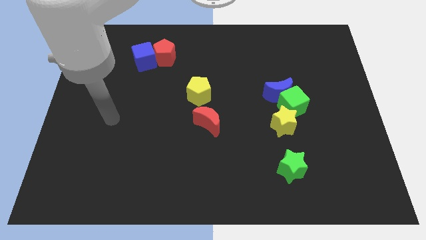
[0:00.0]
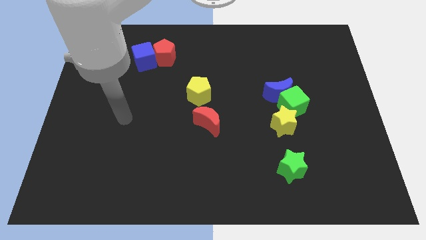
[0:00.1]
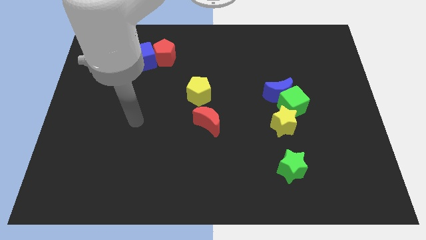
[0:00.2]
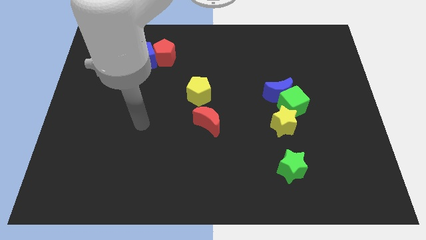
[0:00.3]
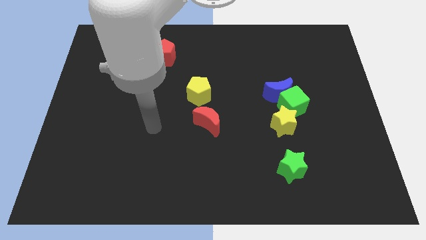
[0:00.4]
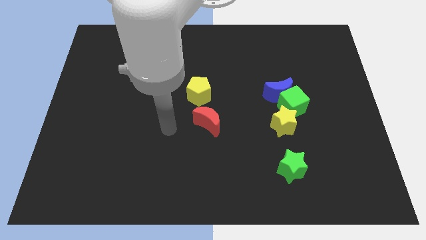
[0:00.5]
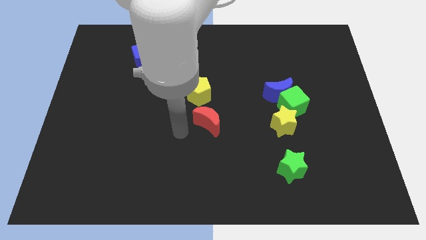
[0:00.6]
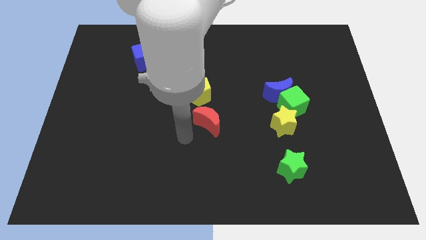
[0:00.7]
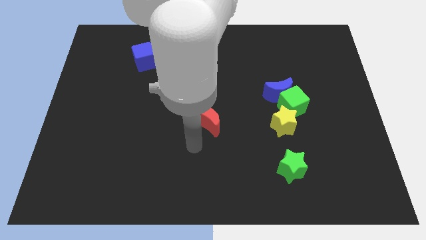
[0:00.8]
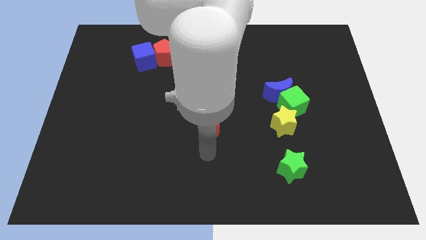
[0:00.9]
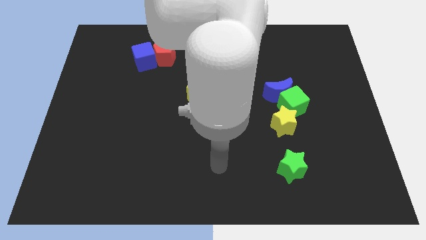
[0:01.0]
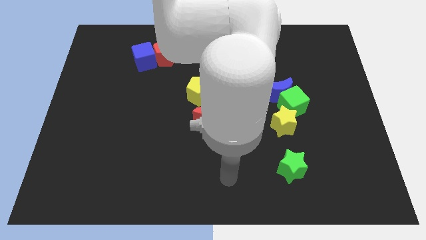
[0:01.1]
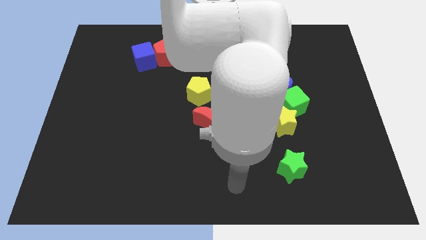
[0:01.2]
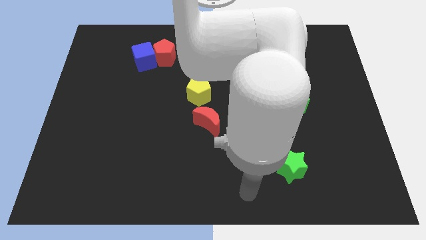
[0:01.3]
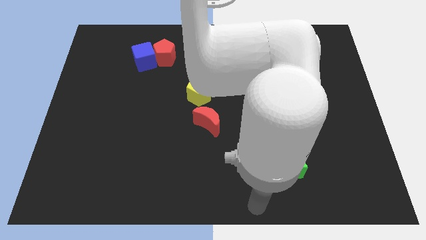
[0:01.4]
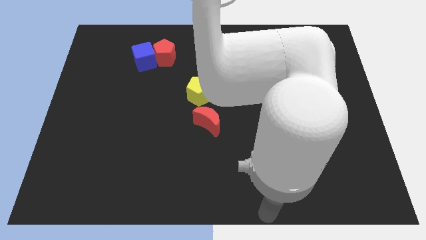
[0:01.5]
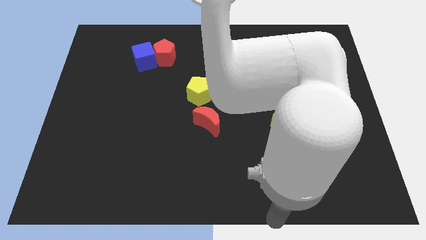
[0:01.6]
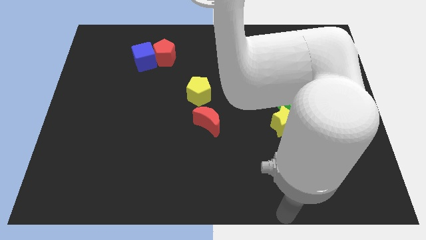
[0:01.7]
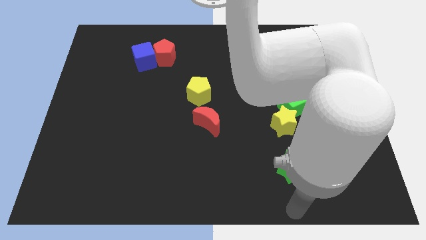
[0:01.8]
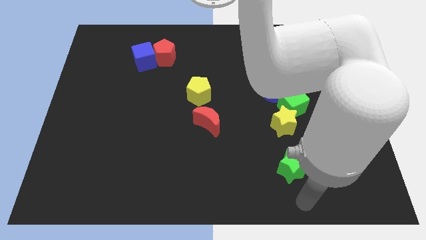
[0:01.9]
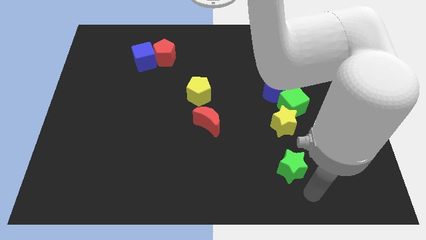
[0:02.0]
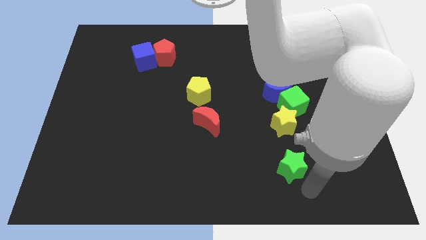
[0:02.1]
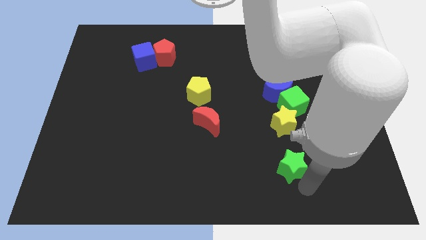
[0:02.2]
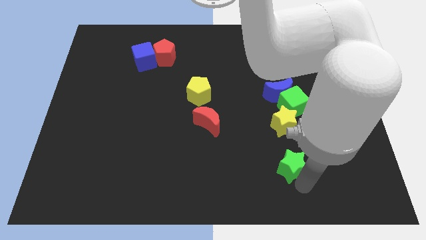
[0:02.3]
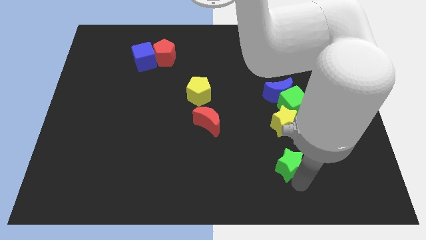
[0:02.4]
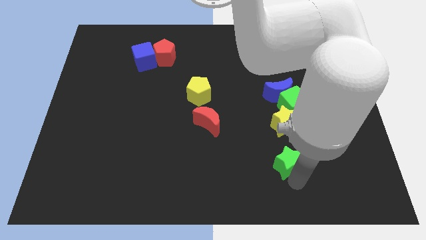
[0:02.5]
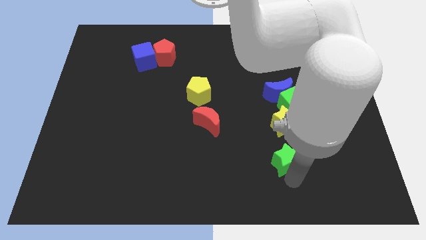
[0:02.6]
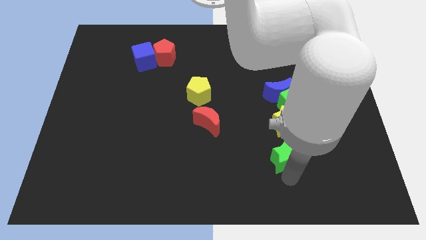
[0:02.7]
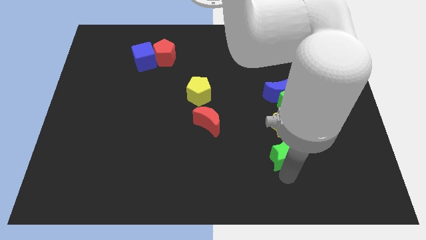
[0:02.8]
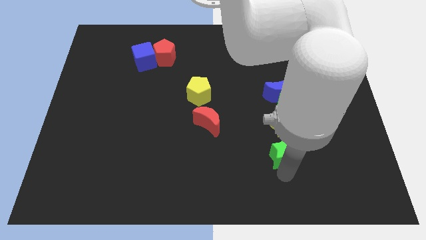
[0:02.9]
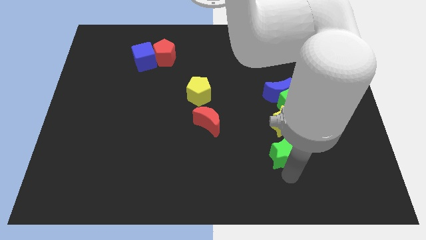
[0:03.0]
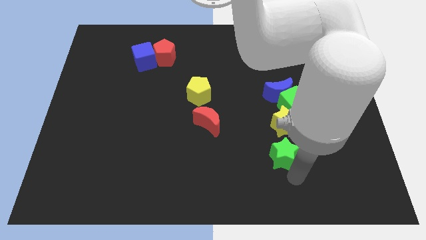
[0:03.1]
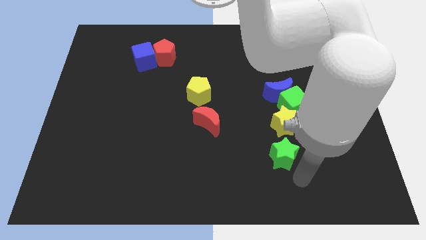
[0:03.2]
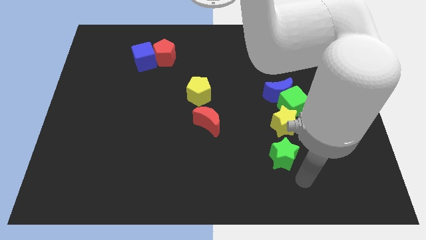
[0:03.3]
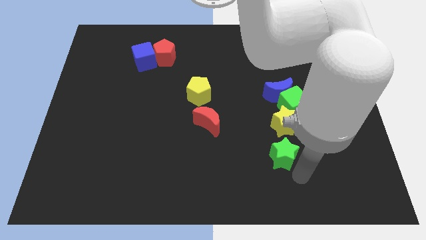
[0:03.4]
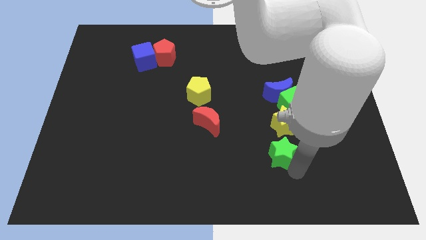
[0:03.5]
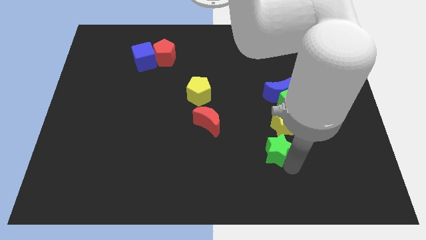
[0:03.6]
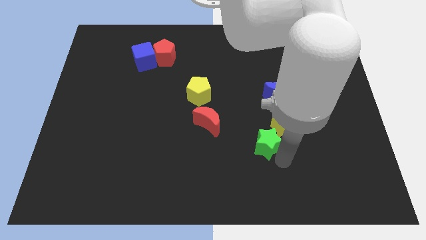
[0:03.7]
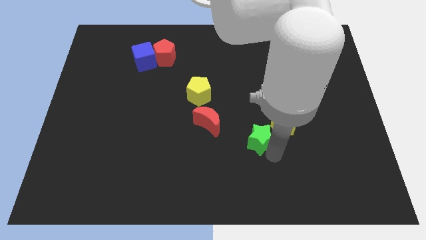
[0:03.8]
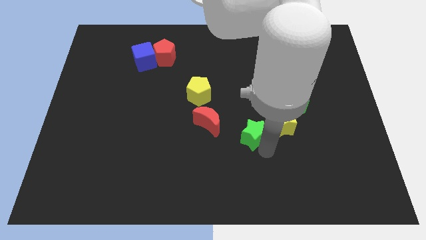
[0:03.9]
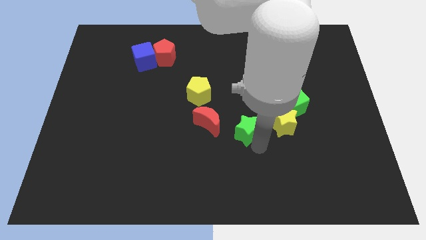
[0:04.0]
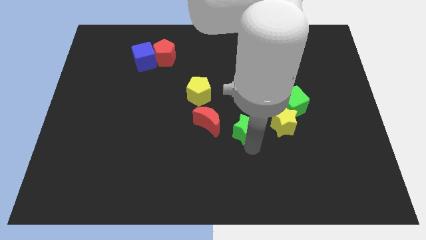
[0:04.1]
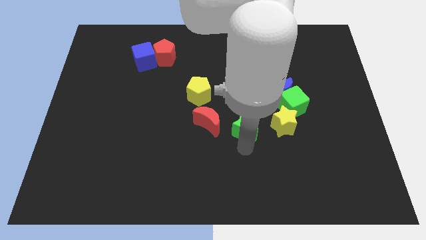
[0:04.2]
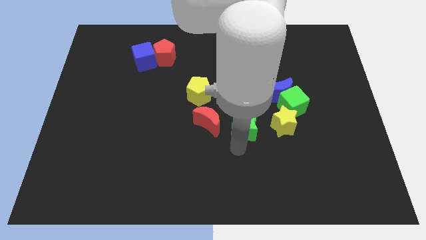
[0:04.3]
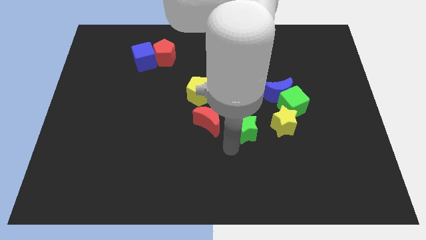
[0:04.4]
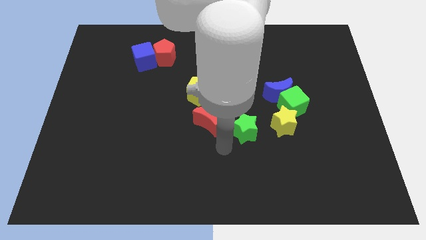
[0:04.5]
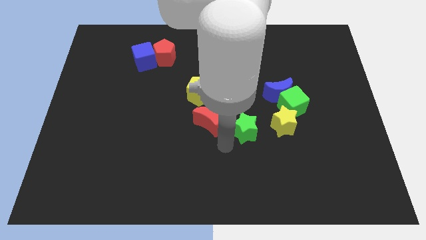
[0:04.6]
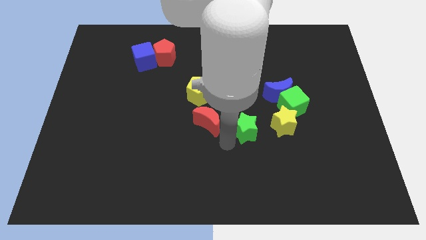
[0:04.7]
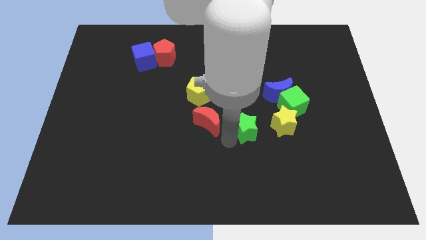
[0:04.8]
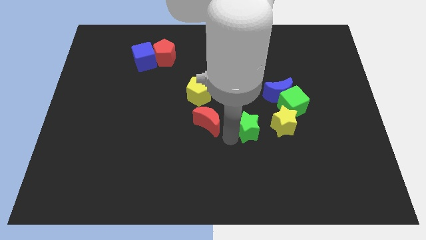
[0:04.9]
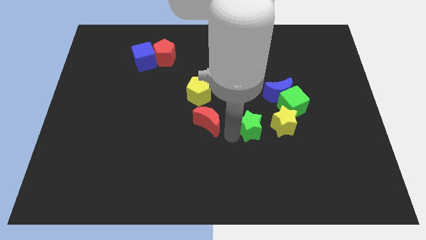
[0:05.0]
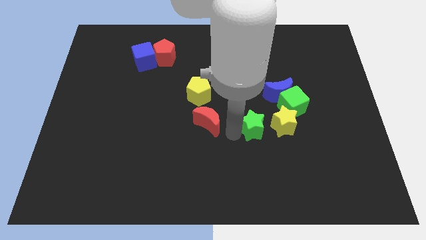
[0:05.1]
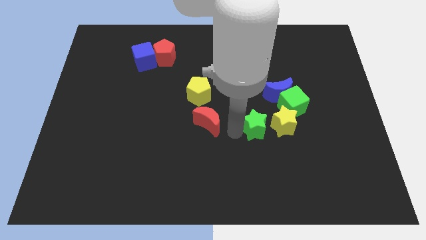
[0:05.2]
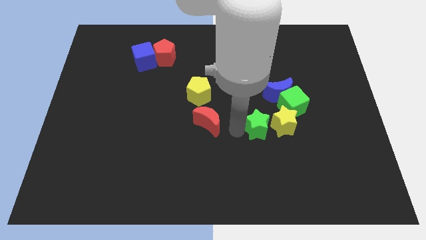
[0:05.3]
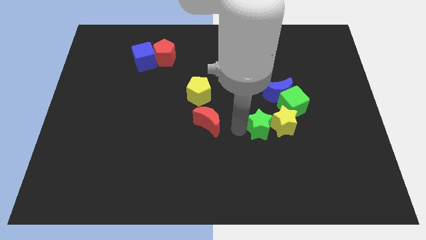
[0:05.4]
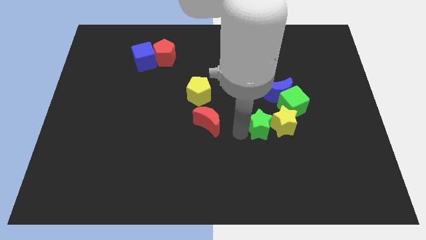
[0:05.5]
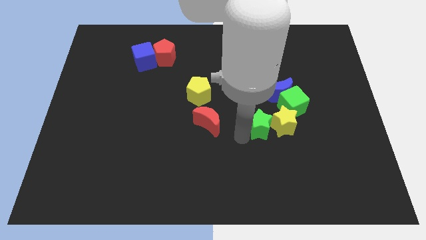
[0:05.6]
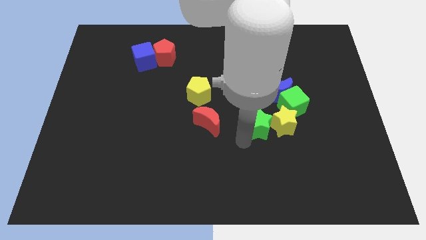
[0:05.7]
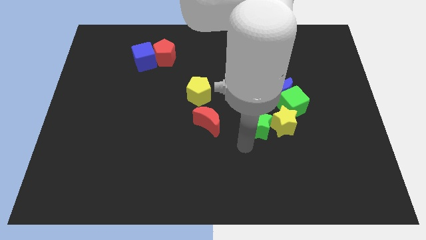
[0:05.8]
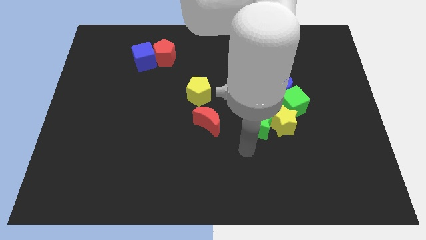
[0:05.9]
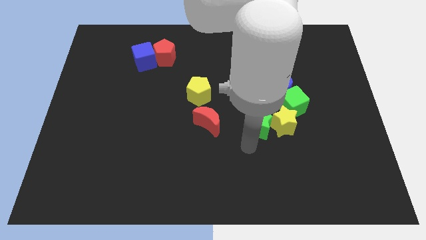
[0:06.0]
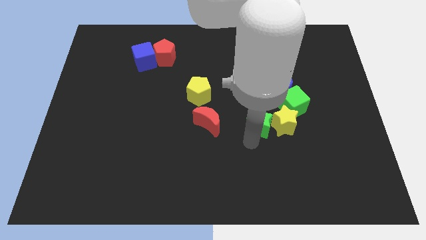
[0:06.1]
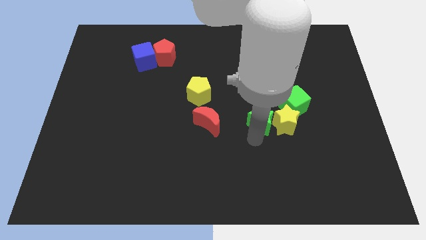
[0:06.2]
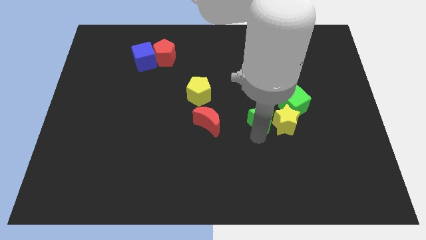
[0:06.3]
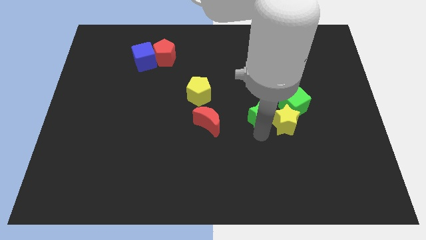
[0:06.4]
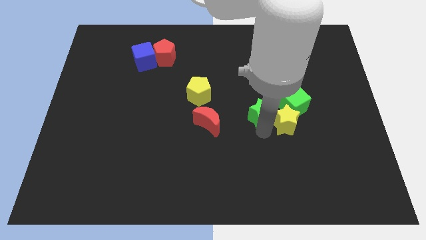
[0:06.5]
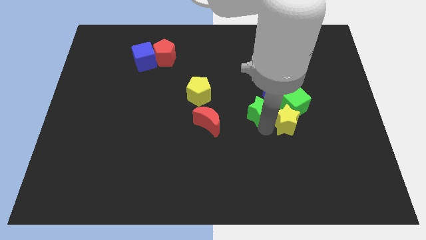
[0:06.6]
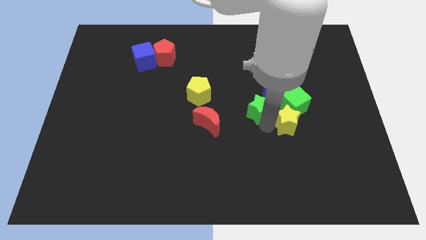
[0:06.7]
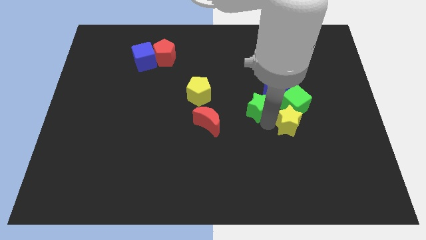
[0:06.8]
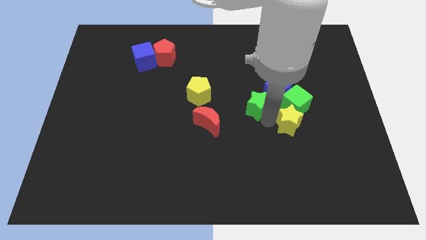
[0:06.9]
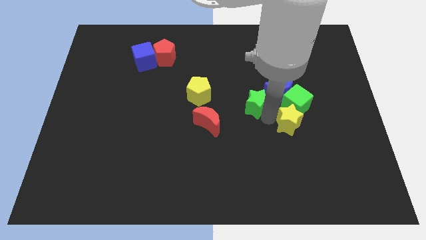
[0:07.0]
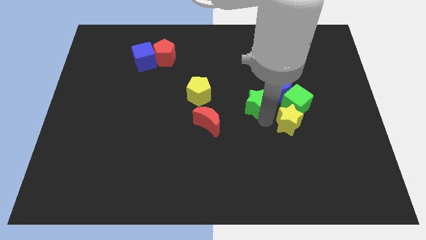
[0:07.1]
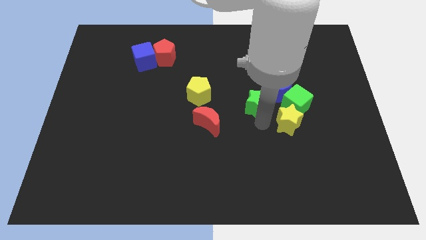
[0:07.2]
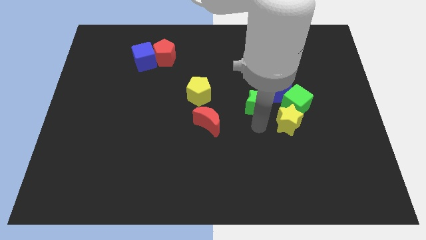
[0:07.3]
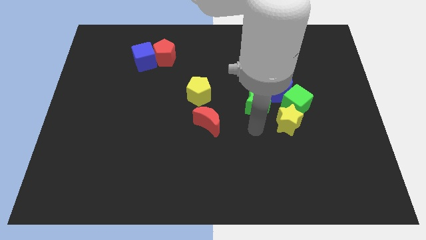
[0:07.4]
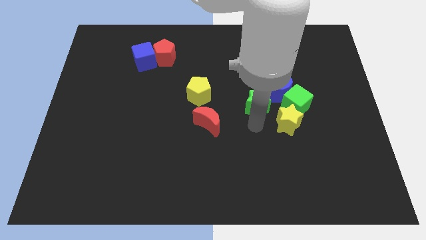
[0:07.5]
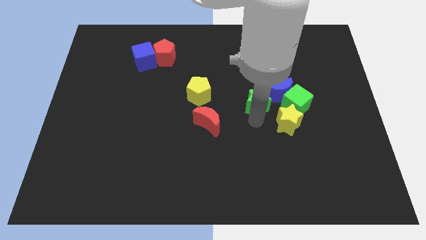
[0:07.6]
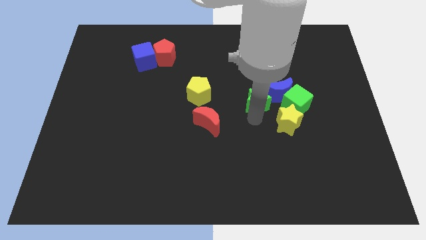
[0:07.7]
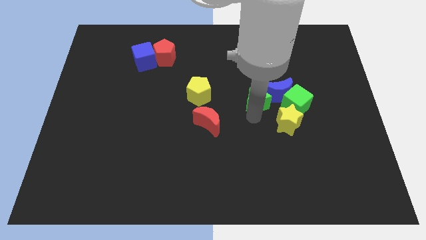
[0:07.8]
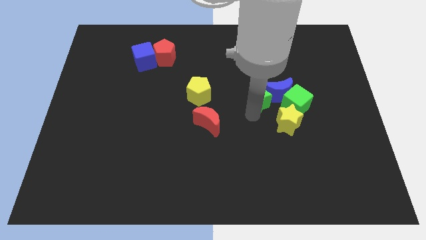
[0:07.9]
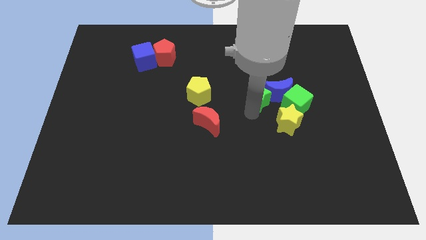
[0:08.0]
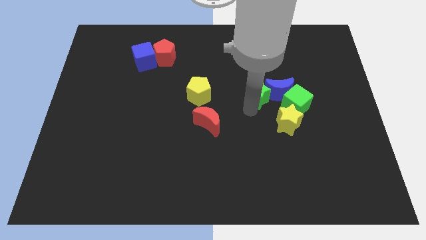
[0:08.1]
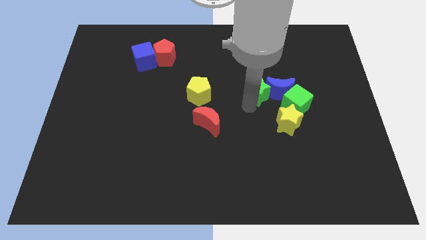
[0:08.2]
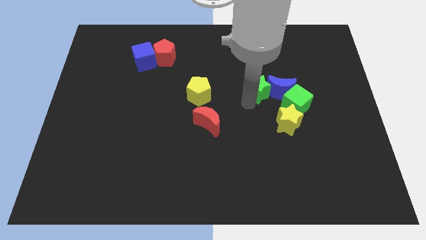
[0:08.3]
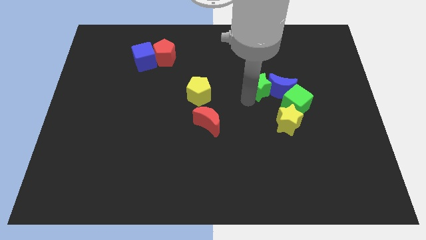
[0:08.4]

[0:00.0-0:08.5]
push the green star upwards
